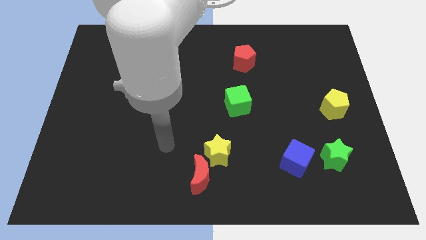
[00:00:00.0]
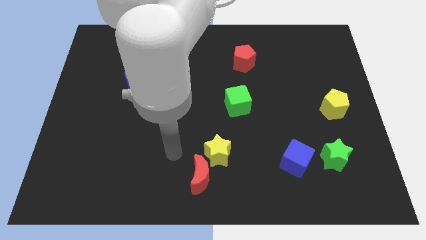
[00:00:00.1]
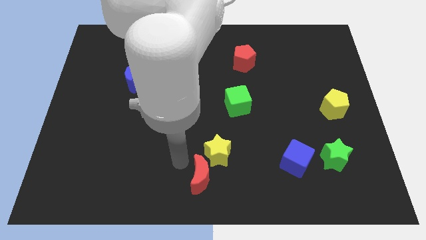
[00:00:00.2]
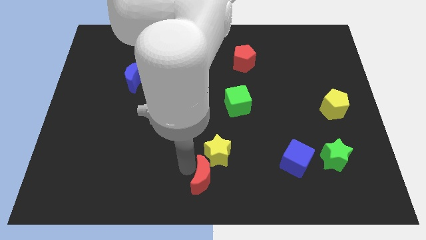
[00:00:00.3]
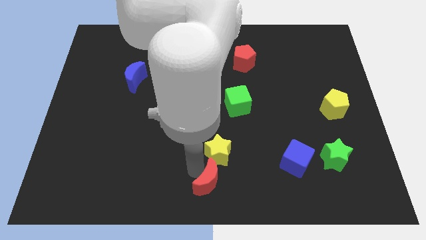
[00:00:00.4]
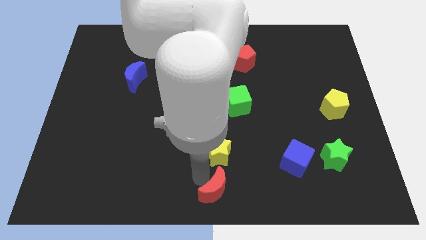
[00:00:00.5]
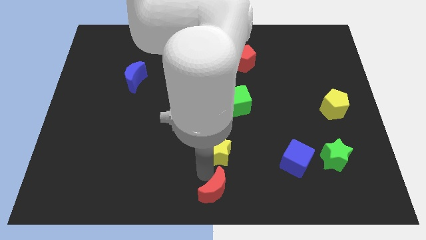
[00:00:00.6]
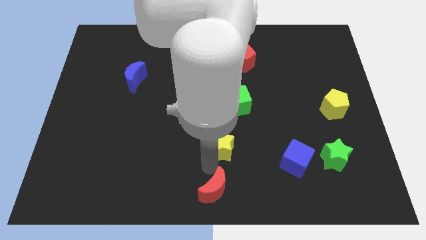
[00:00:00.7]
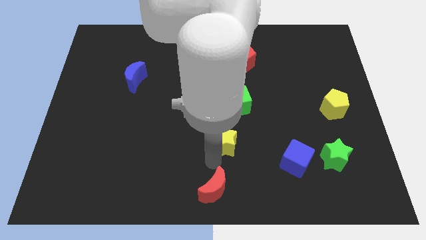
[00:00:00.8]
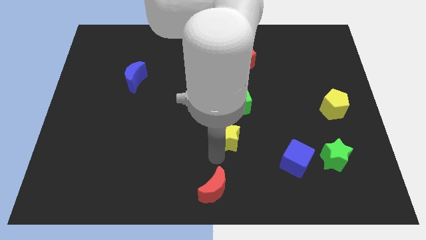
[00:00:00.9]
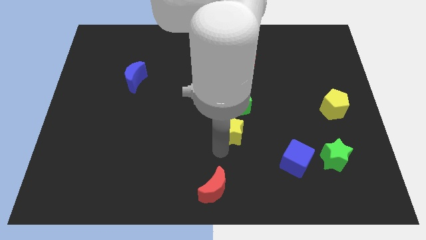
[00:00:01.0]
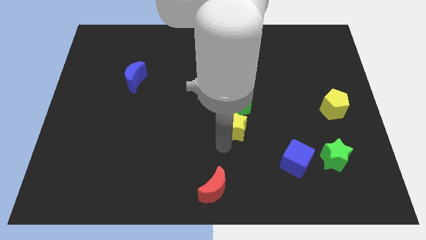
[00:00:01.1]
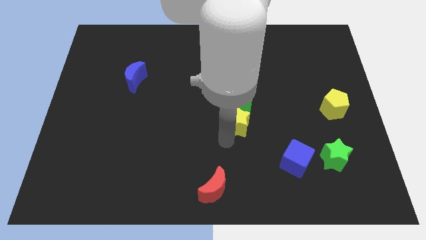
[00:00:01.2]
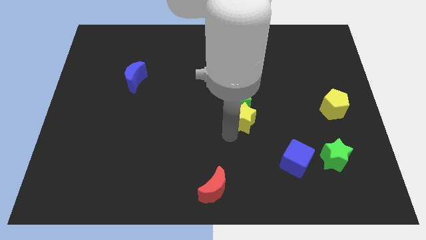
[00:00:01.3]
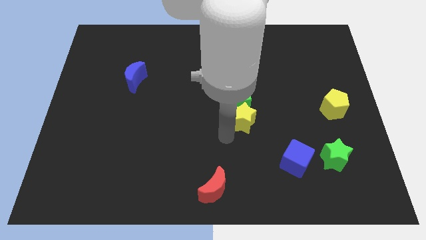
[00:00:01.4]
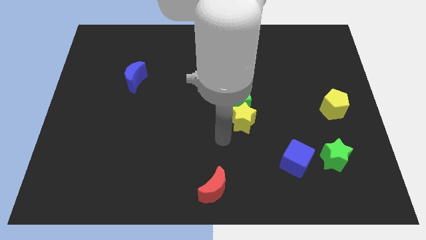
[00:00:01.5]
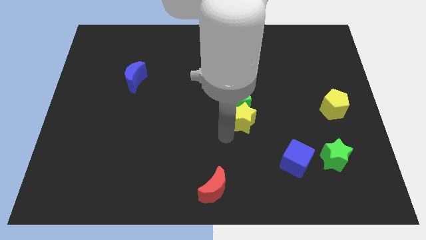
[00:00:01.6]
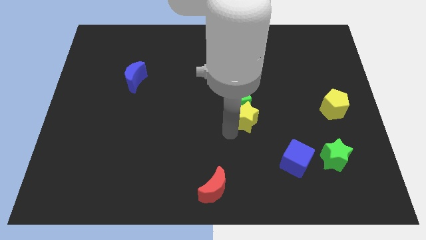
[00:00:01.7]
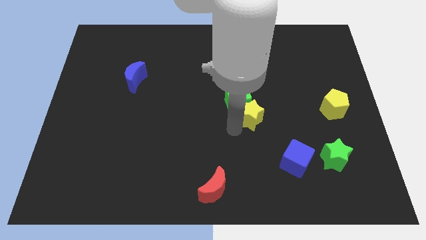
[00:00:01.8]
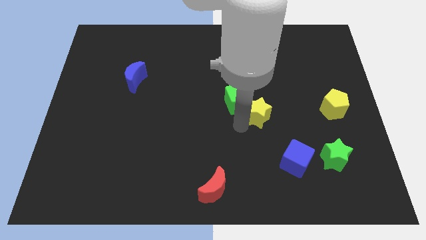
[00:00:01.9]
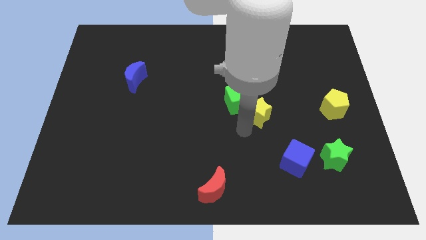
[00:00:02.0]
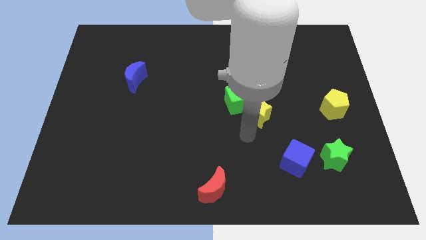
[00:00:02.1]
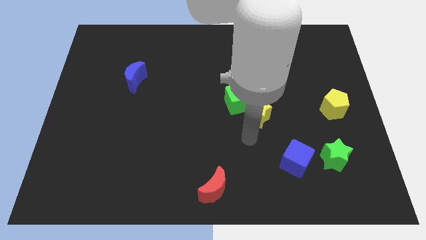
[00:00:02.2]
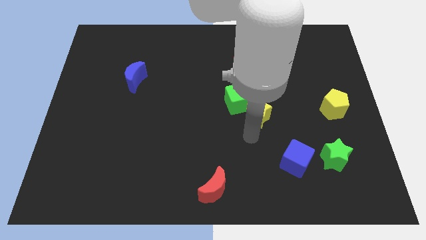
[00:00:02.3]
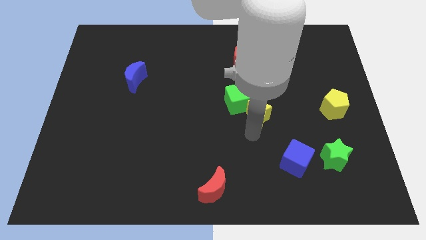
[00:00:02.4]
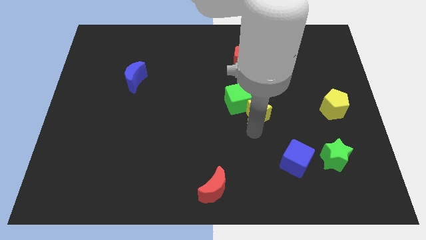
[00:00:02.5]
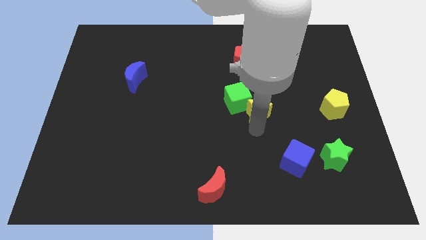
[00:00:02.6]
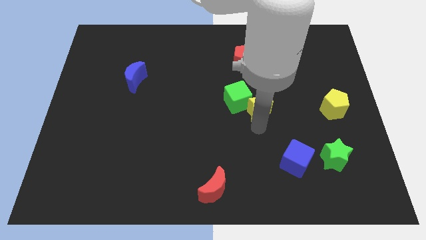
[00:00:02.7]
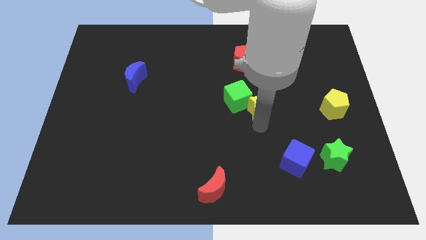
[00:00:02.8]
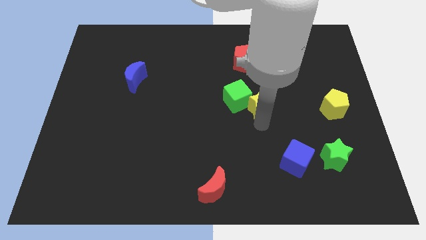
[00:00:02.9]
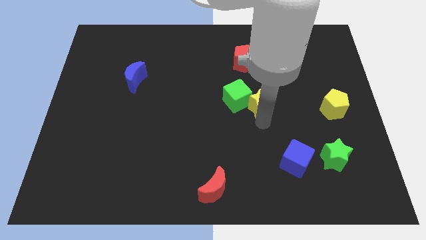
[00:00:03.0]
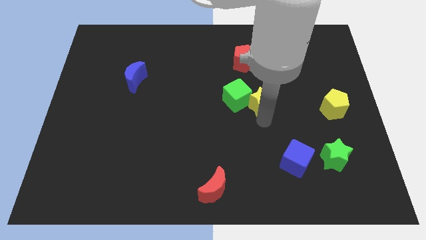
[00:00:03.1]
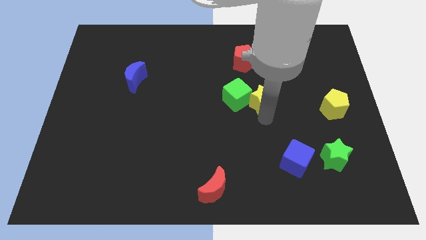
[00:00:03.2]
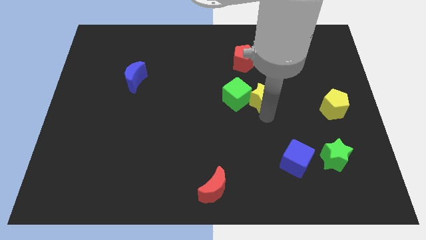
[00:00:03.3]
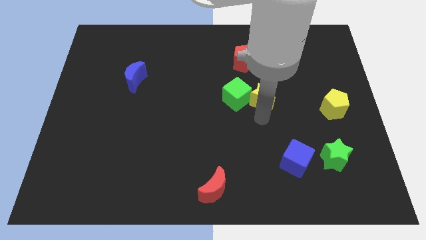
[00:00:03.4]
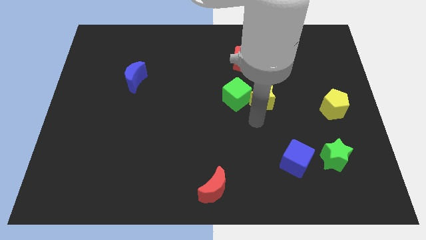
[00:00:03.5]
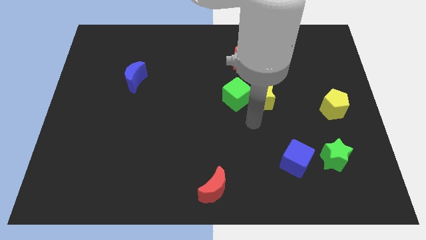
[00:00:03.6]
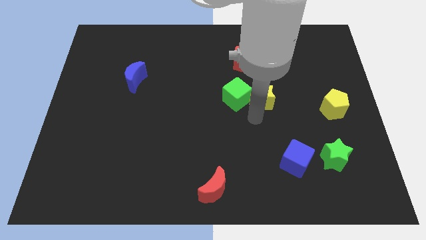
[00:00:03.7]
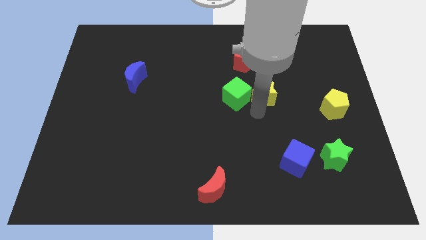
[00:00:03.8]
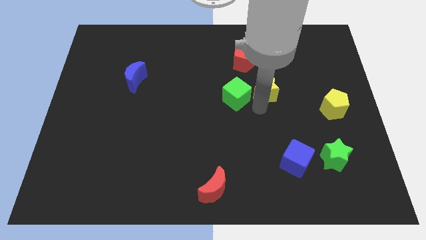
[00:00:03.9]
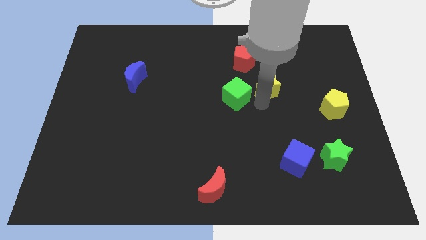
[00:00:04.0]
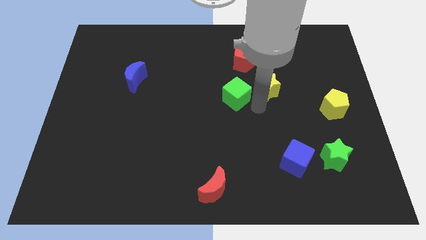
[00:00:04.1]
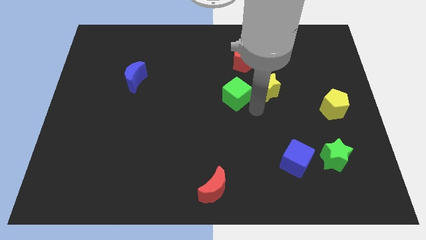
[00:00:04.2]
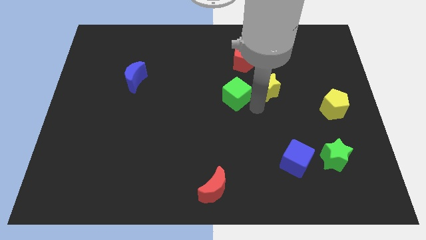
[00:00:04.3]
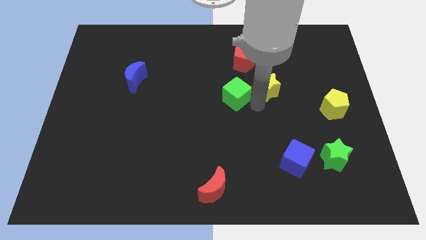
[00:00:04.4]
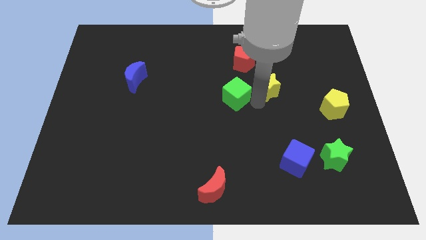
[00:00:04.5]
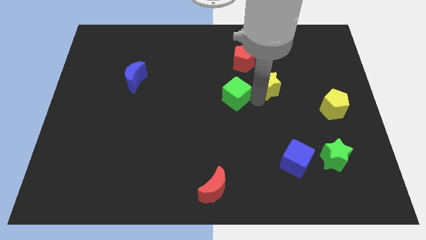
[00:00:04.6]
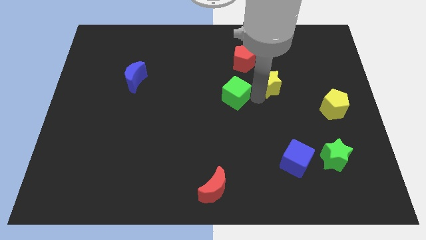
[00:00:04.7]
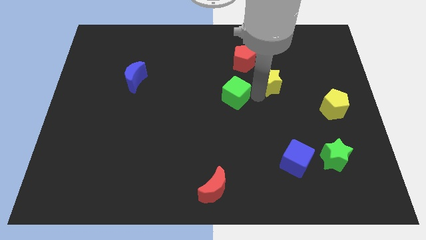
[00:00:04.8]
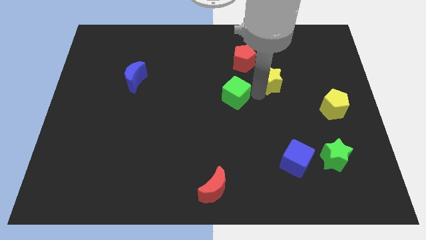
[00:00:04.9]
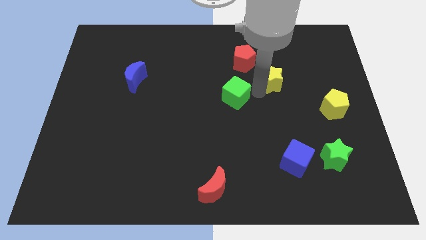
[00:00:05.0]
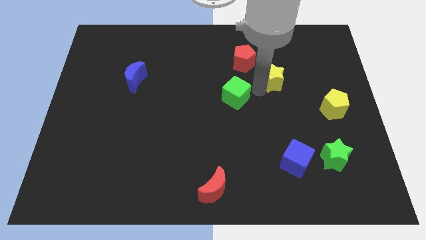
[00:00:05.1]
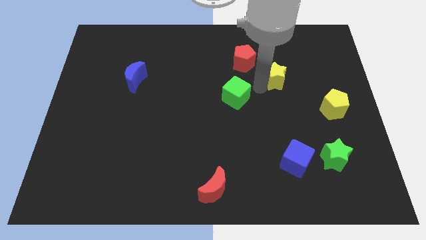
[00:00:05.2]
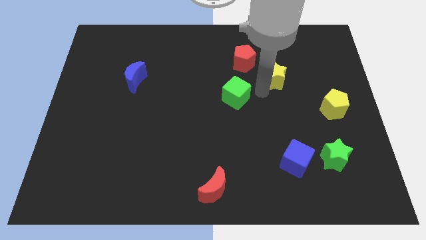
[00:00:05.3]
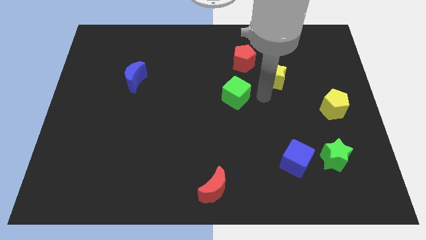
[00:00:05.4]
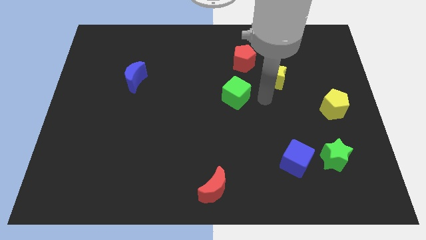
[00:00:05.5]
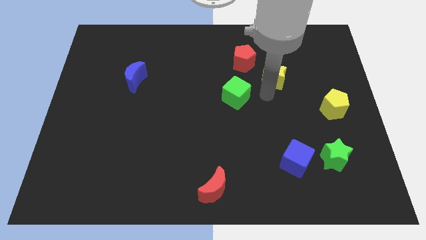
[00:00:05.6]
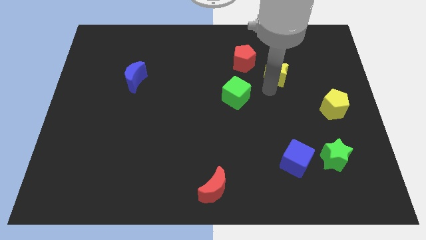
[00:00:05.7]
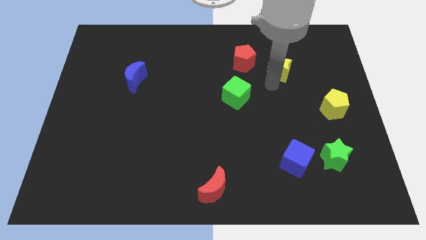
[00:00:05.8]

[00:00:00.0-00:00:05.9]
slide the yellow star right of the red pentagon
